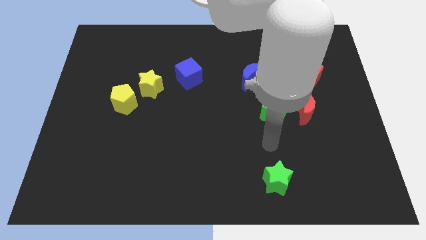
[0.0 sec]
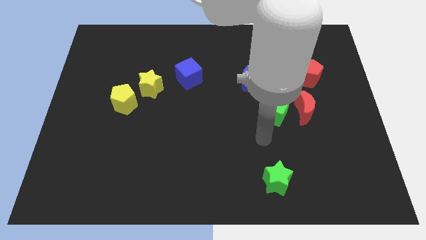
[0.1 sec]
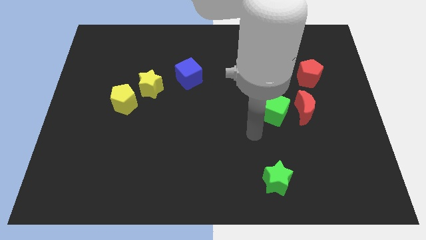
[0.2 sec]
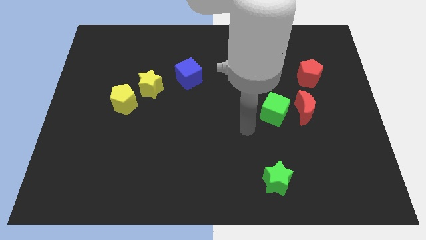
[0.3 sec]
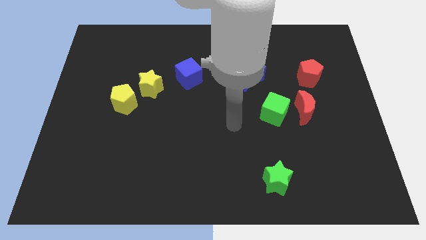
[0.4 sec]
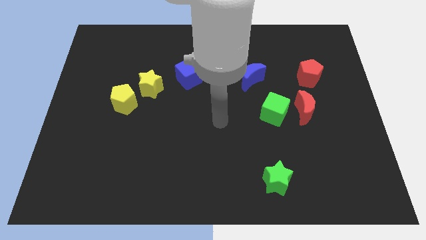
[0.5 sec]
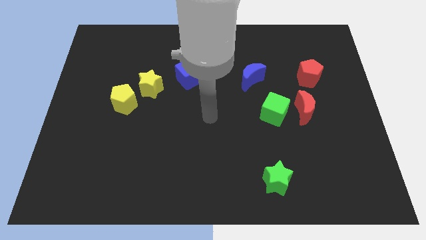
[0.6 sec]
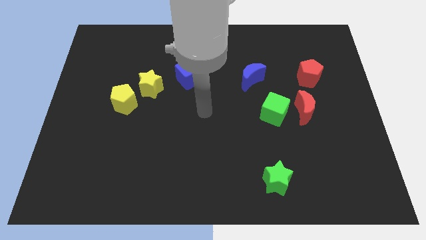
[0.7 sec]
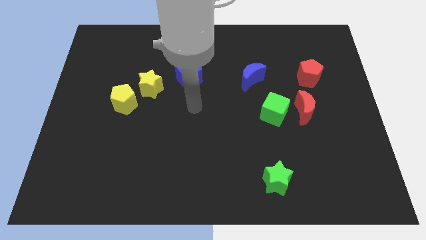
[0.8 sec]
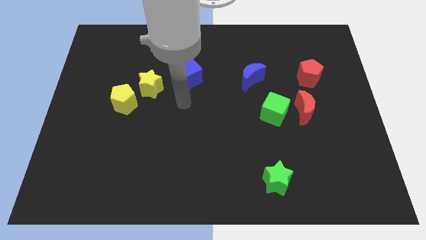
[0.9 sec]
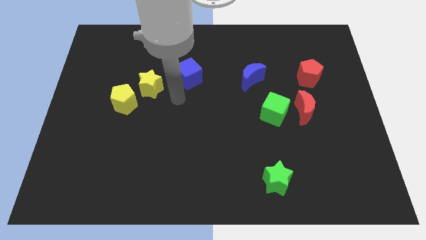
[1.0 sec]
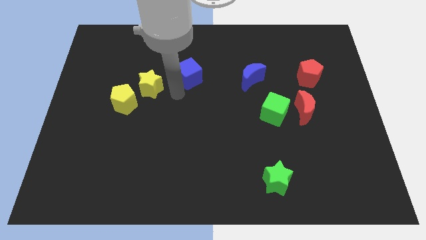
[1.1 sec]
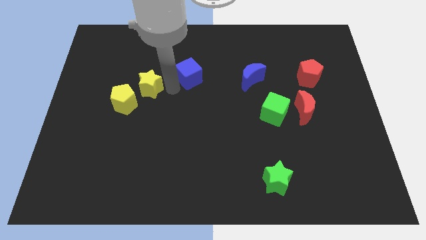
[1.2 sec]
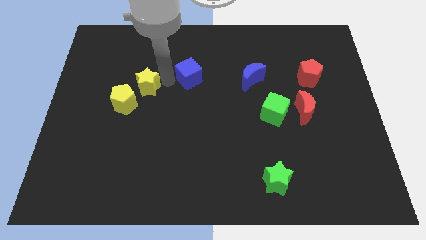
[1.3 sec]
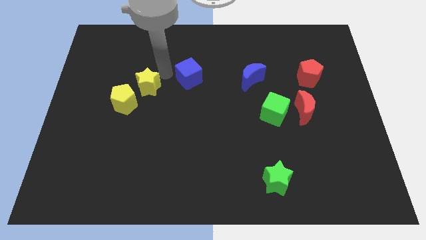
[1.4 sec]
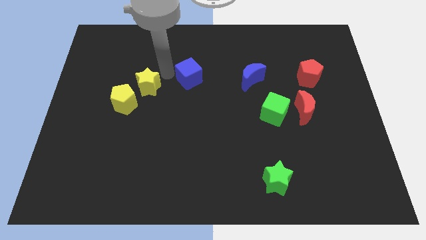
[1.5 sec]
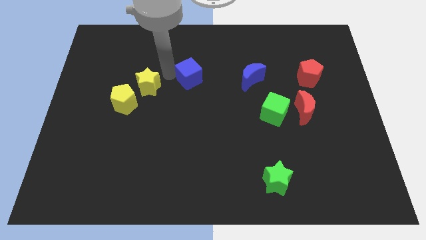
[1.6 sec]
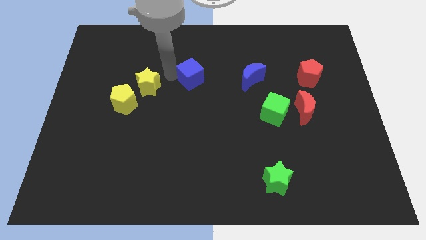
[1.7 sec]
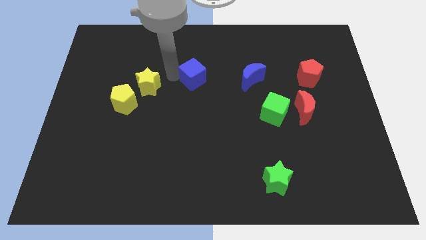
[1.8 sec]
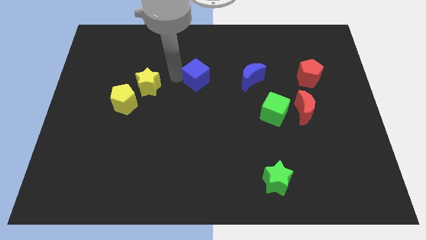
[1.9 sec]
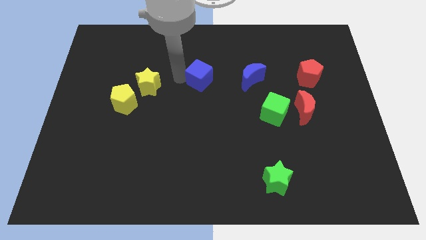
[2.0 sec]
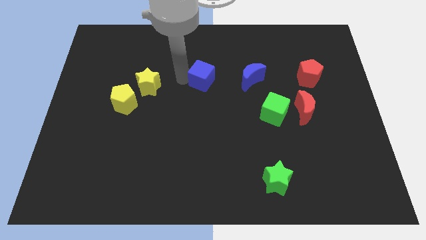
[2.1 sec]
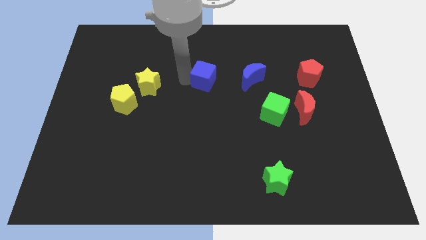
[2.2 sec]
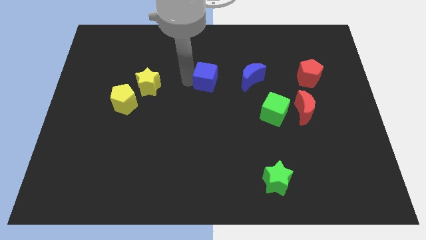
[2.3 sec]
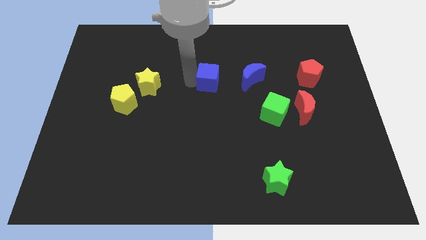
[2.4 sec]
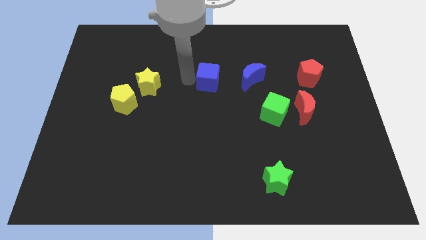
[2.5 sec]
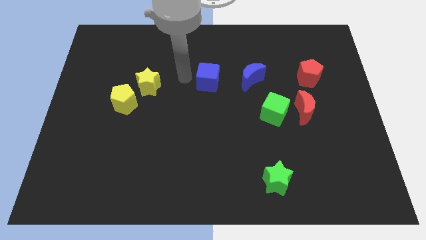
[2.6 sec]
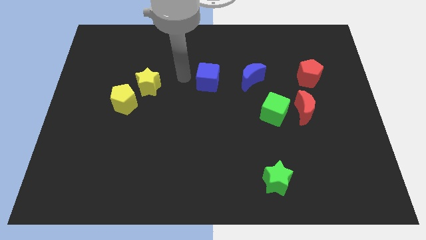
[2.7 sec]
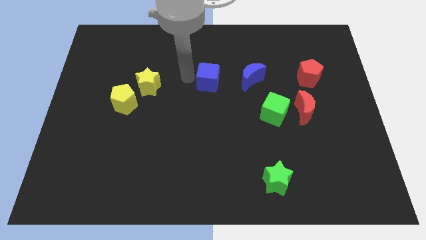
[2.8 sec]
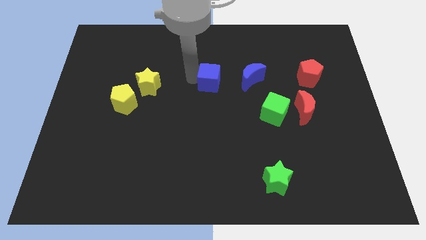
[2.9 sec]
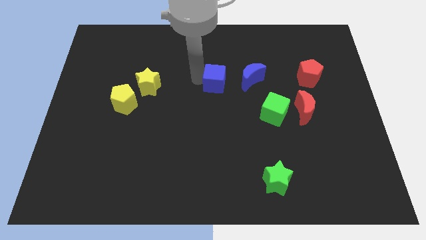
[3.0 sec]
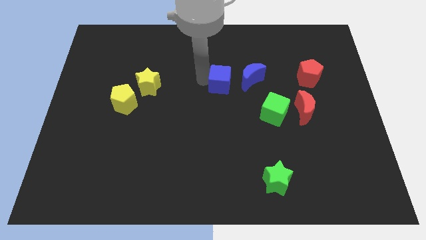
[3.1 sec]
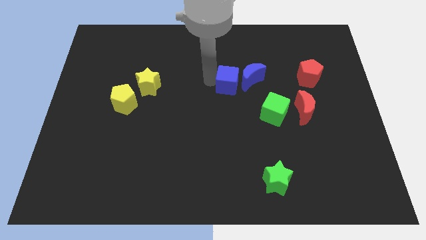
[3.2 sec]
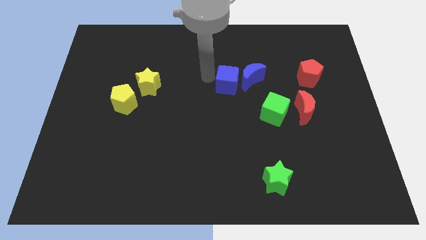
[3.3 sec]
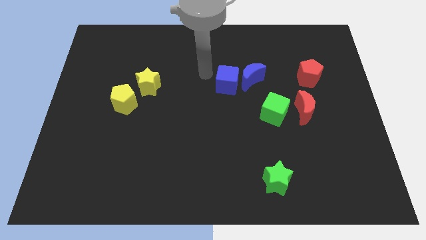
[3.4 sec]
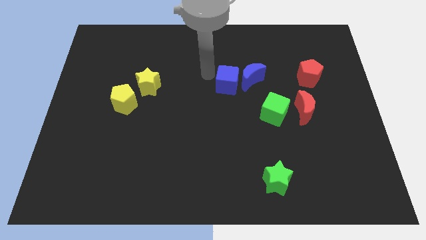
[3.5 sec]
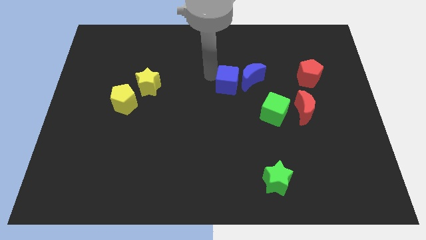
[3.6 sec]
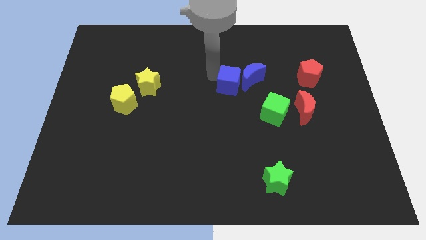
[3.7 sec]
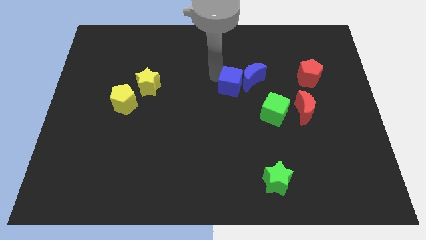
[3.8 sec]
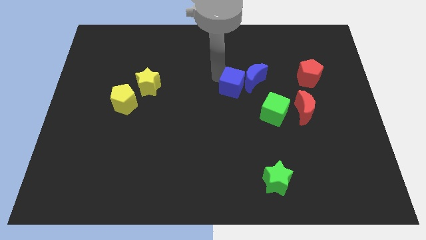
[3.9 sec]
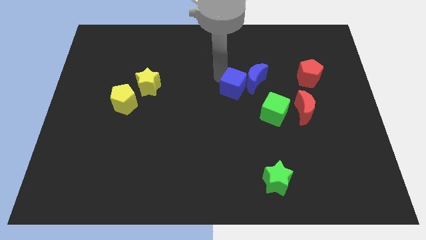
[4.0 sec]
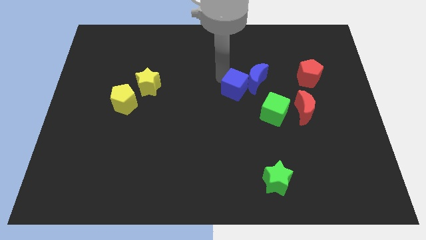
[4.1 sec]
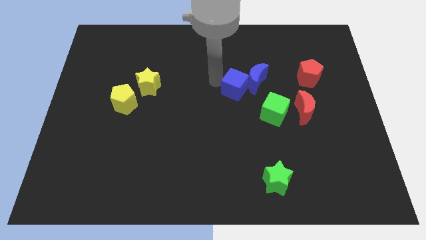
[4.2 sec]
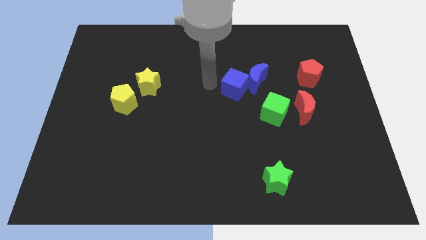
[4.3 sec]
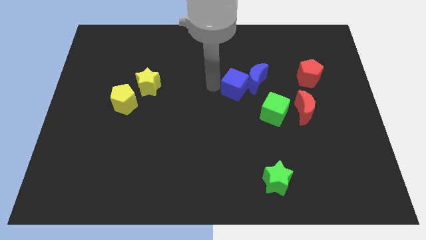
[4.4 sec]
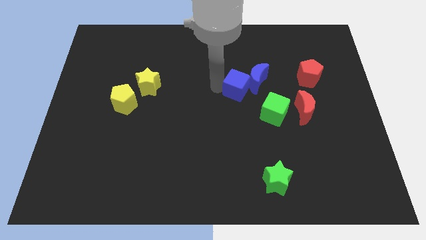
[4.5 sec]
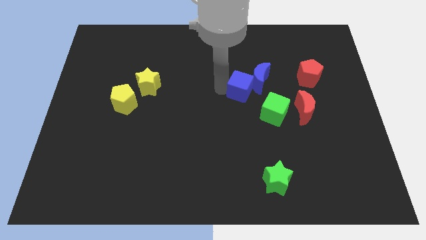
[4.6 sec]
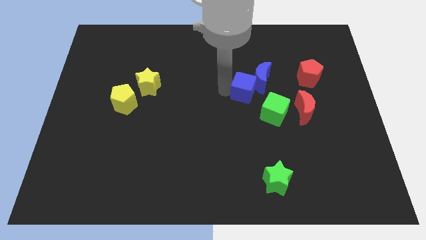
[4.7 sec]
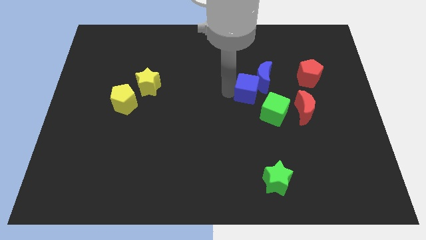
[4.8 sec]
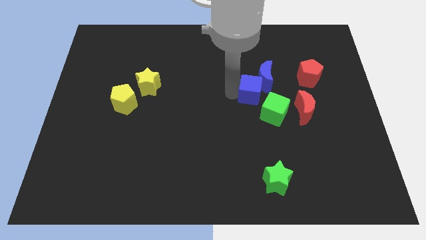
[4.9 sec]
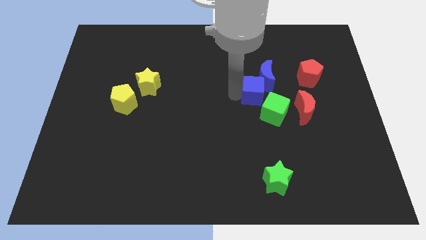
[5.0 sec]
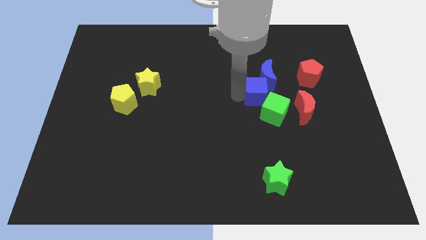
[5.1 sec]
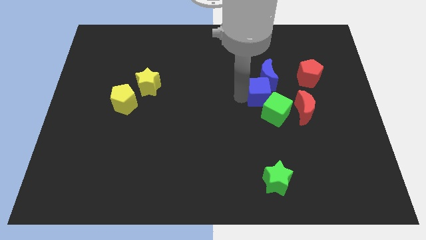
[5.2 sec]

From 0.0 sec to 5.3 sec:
put the blue cube to the top left of the red moon

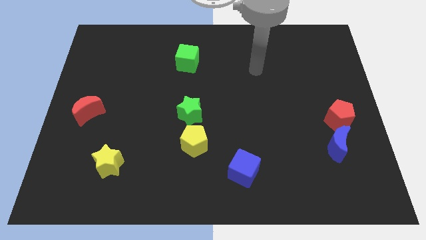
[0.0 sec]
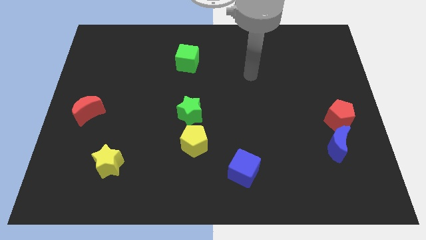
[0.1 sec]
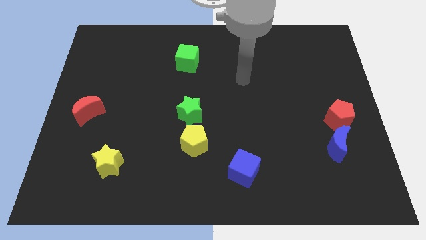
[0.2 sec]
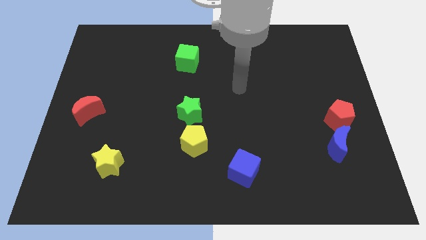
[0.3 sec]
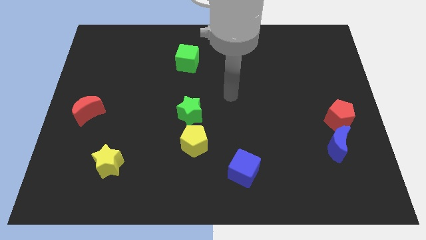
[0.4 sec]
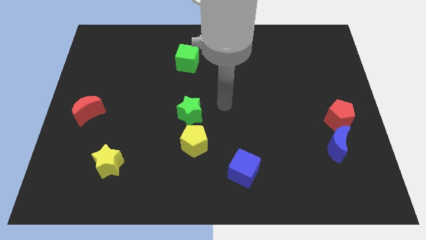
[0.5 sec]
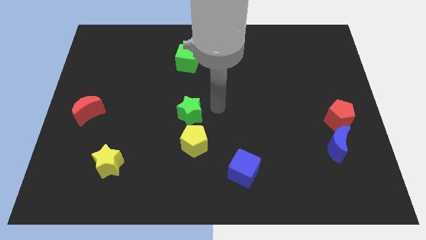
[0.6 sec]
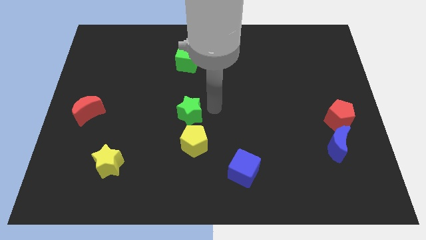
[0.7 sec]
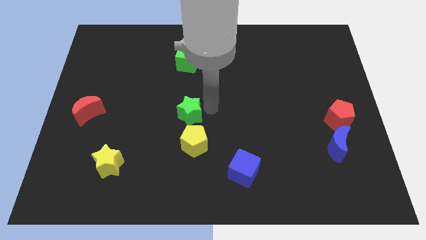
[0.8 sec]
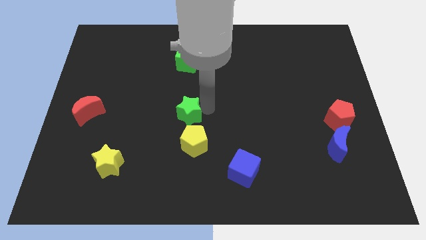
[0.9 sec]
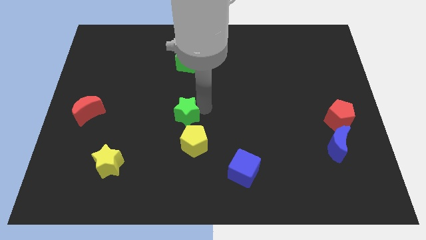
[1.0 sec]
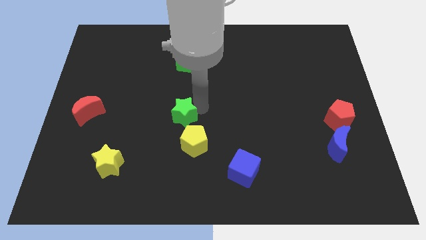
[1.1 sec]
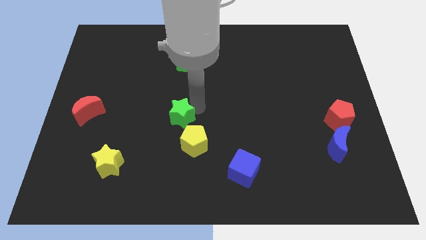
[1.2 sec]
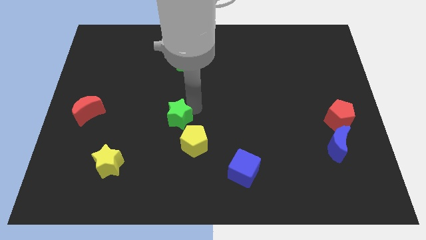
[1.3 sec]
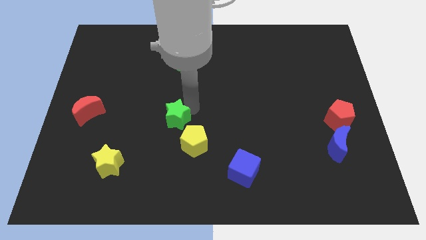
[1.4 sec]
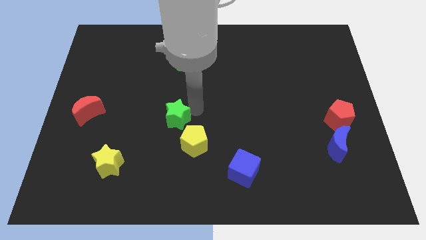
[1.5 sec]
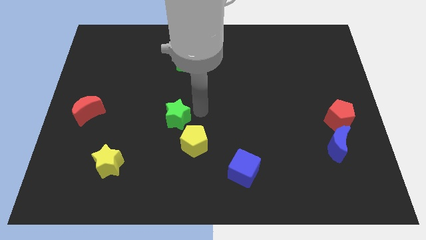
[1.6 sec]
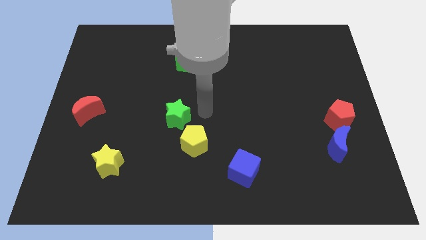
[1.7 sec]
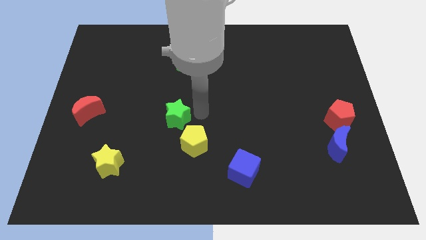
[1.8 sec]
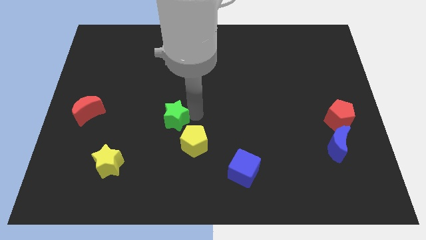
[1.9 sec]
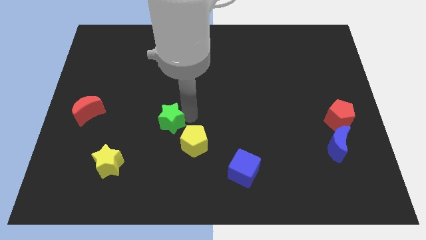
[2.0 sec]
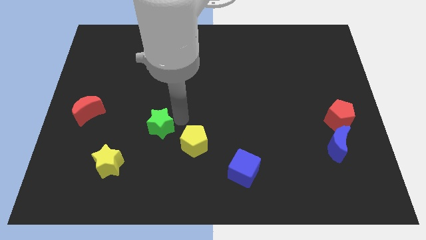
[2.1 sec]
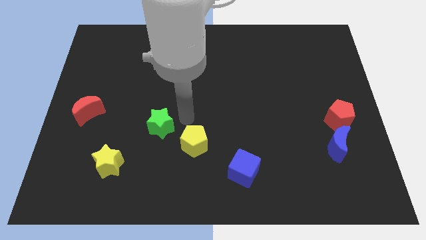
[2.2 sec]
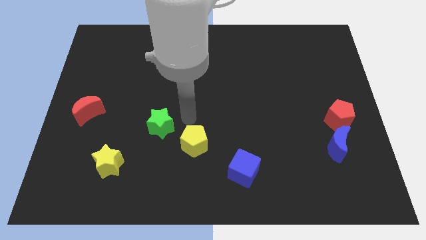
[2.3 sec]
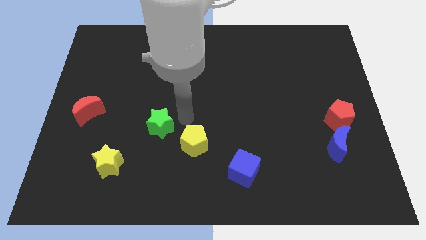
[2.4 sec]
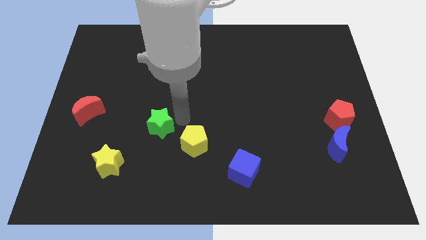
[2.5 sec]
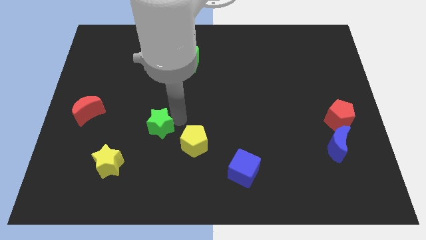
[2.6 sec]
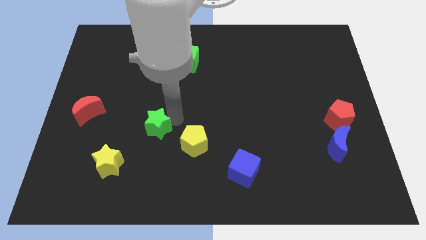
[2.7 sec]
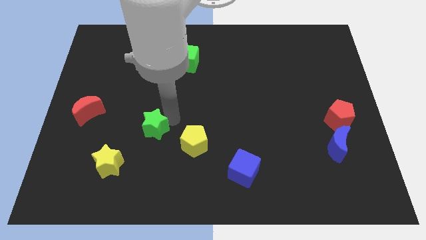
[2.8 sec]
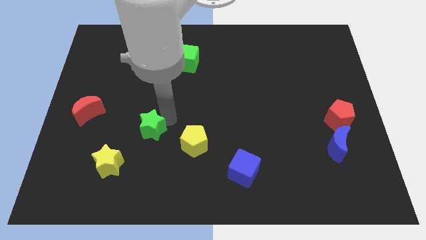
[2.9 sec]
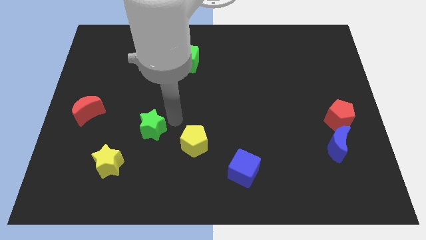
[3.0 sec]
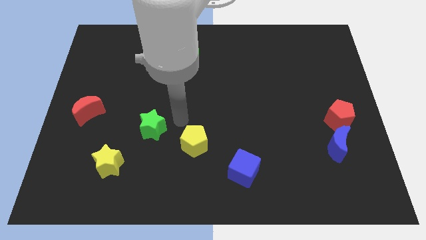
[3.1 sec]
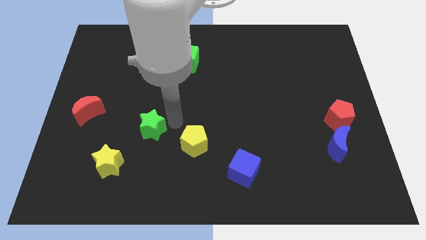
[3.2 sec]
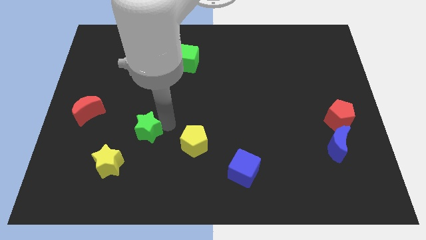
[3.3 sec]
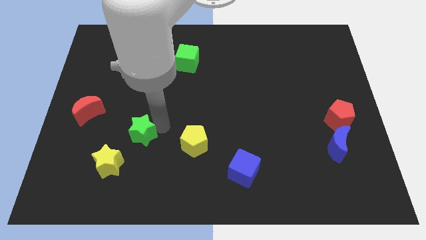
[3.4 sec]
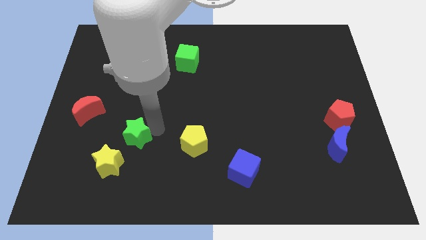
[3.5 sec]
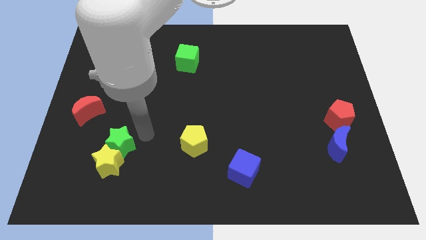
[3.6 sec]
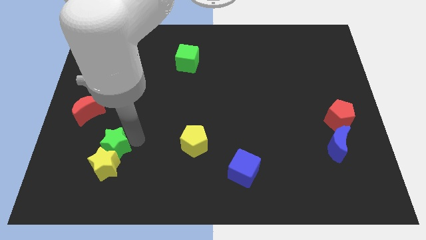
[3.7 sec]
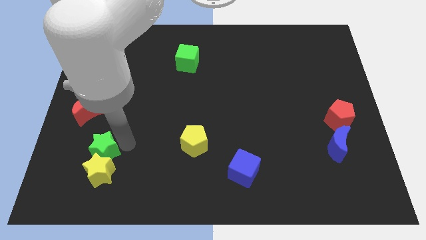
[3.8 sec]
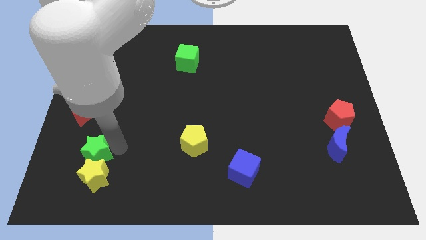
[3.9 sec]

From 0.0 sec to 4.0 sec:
slide the green star to the bottom side of the red moon
